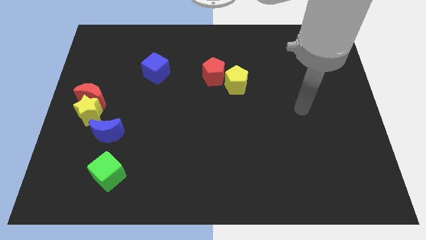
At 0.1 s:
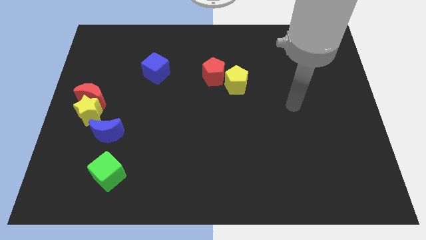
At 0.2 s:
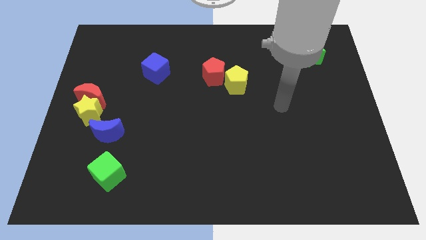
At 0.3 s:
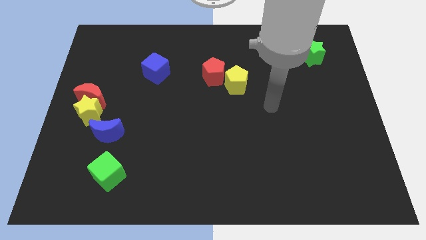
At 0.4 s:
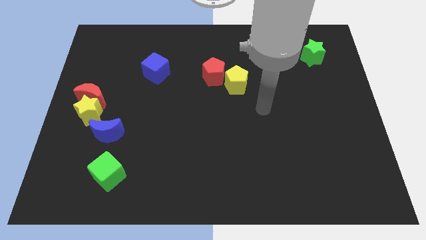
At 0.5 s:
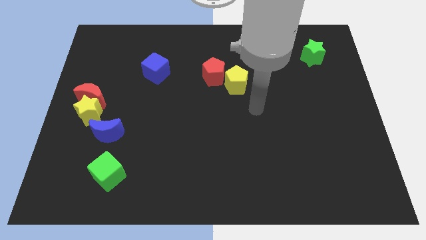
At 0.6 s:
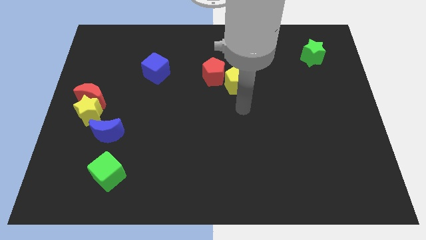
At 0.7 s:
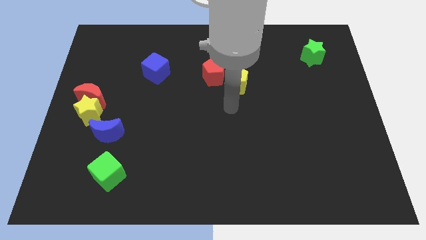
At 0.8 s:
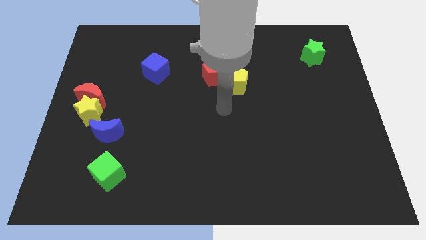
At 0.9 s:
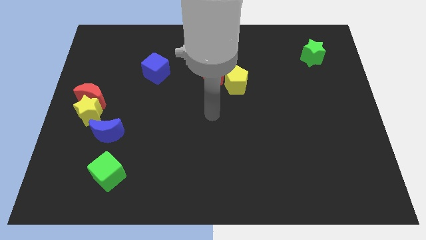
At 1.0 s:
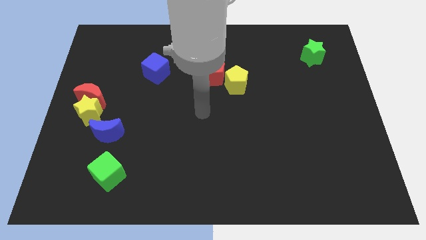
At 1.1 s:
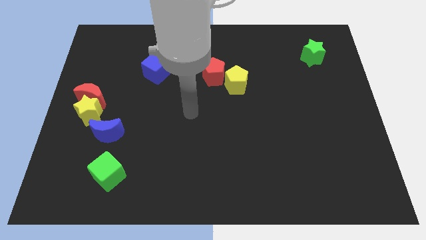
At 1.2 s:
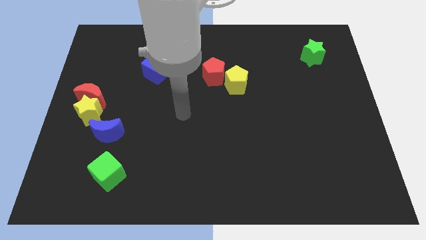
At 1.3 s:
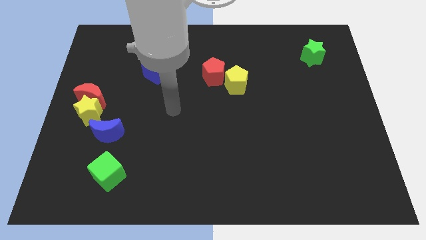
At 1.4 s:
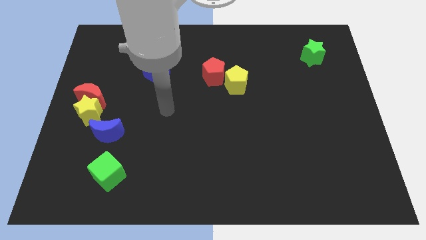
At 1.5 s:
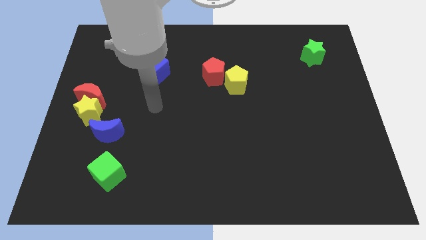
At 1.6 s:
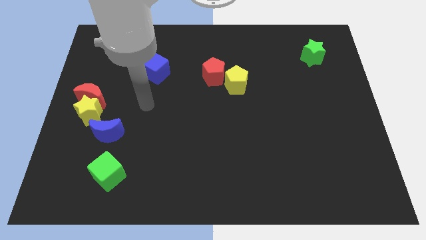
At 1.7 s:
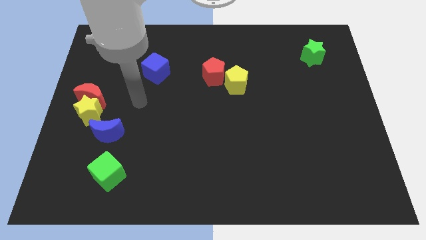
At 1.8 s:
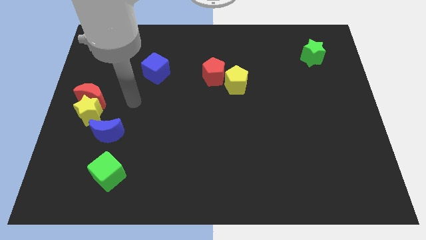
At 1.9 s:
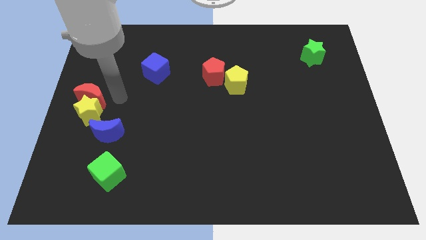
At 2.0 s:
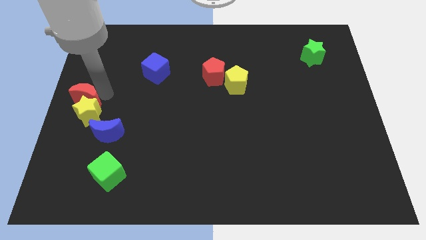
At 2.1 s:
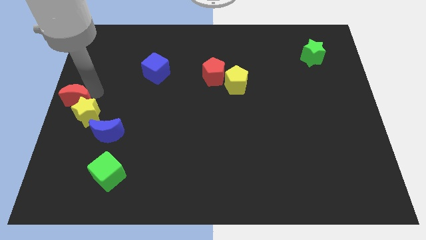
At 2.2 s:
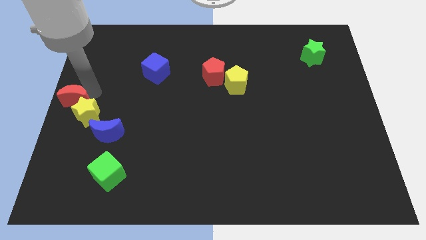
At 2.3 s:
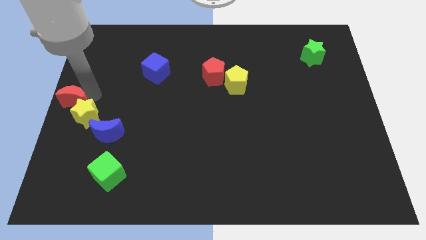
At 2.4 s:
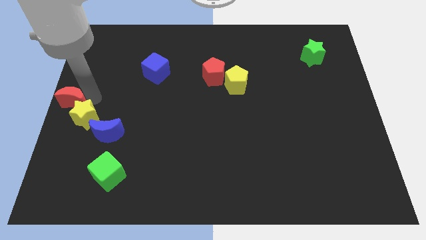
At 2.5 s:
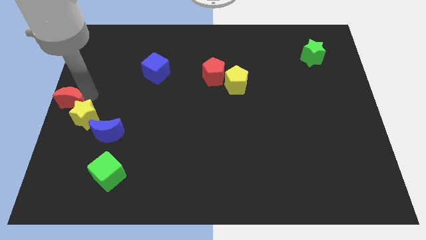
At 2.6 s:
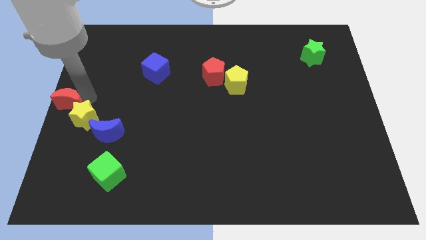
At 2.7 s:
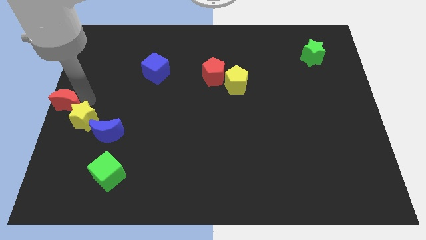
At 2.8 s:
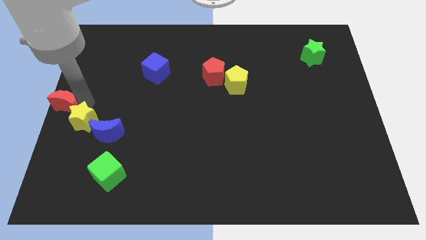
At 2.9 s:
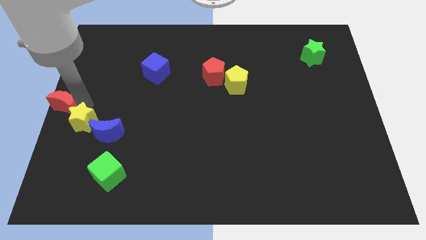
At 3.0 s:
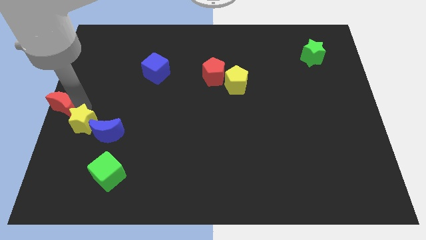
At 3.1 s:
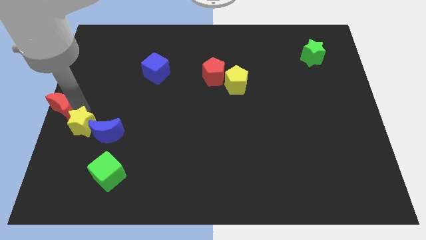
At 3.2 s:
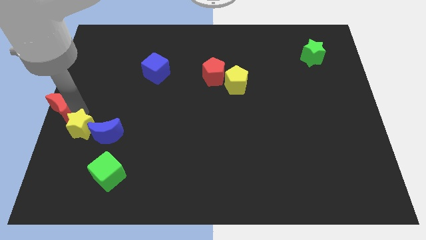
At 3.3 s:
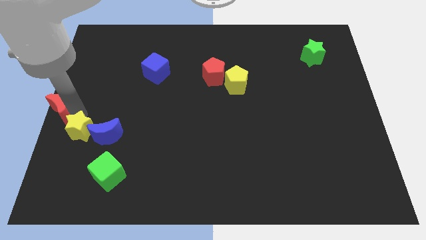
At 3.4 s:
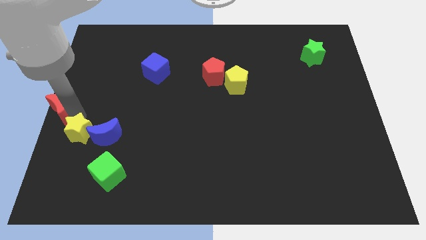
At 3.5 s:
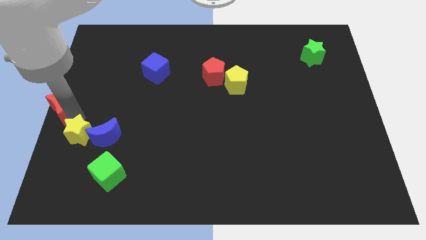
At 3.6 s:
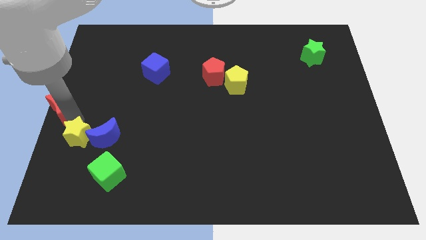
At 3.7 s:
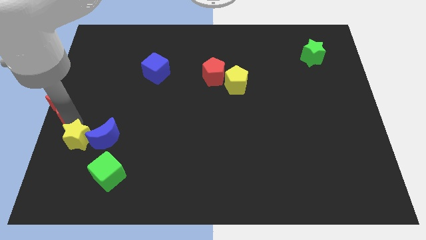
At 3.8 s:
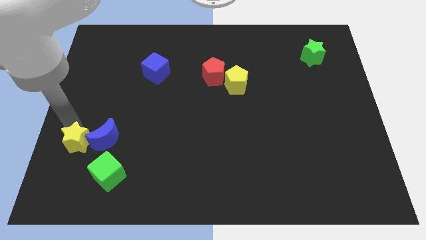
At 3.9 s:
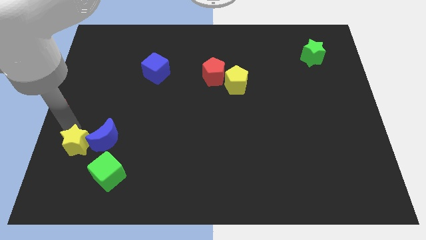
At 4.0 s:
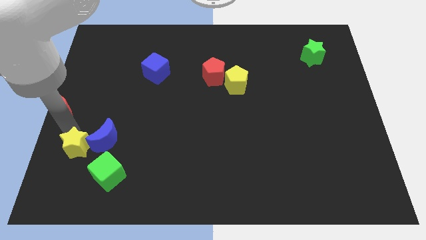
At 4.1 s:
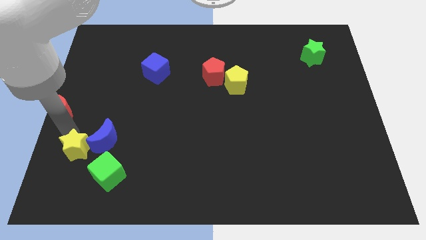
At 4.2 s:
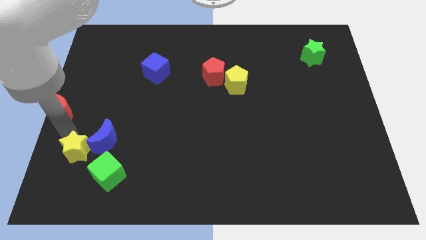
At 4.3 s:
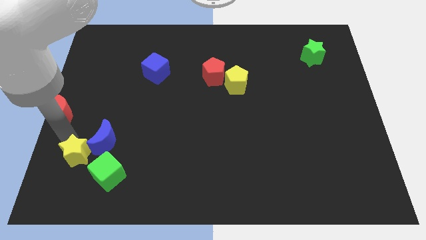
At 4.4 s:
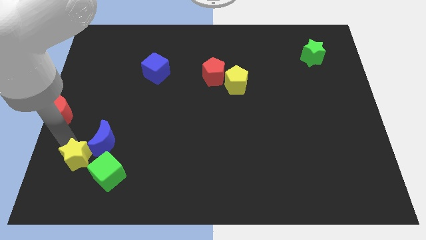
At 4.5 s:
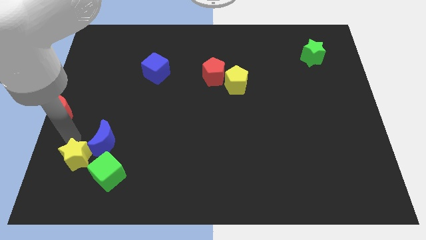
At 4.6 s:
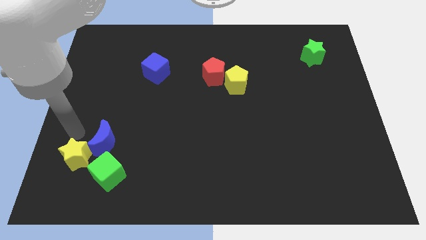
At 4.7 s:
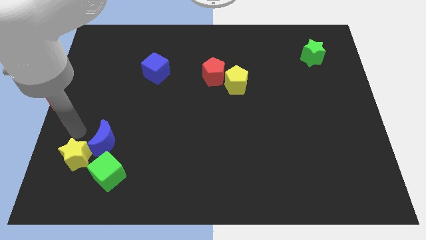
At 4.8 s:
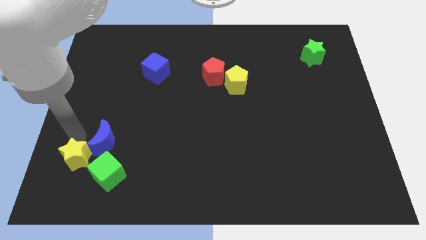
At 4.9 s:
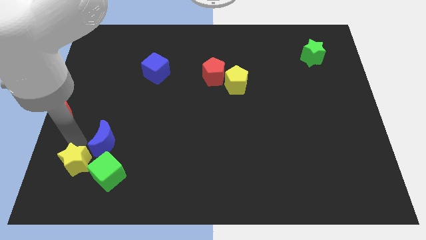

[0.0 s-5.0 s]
push the yellow star to the bottom side of the blue moon

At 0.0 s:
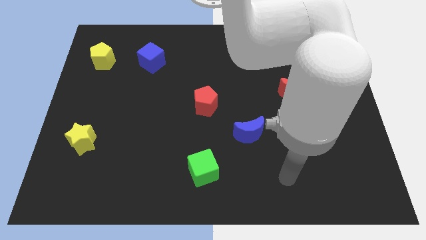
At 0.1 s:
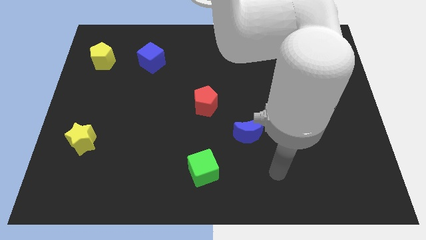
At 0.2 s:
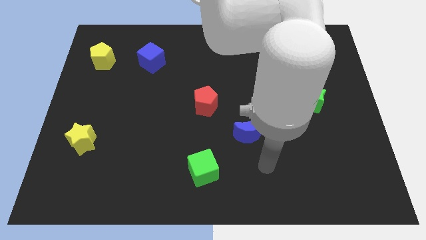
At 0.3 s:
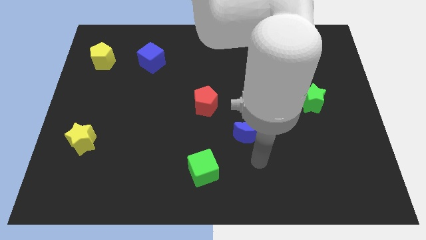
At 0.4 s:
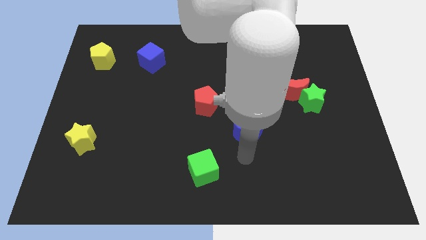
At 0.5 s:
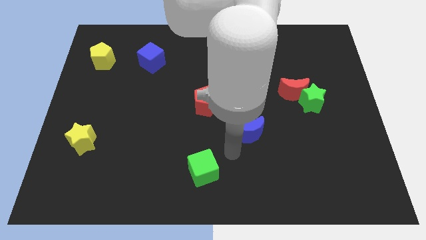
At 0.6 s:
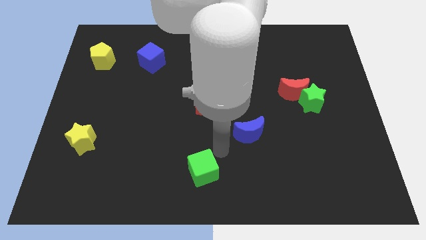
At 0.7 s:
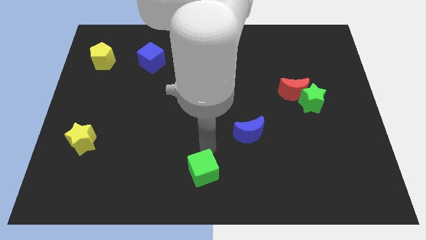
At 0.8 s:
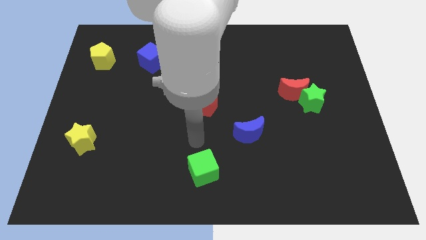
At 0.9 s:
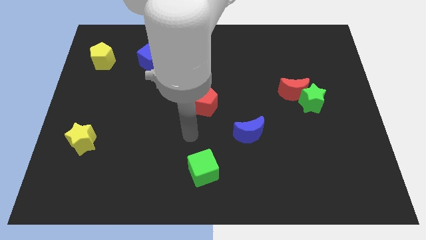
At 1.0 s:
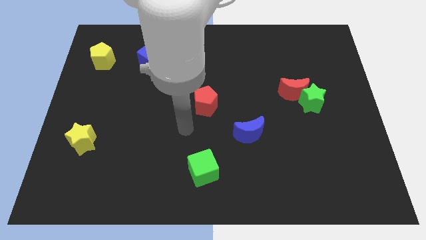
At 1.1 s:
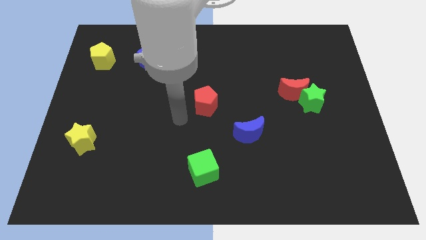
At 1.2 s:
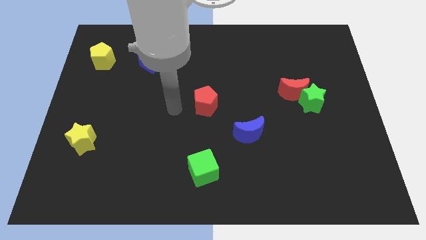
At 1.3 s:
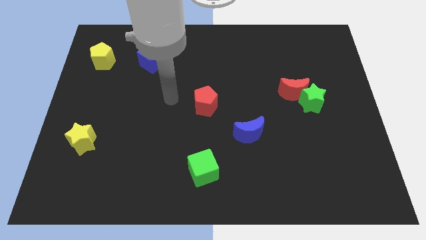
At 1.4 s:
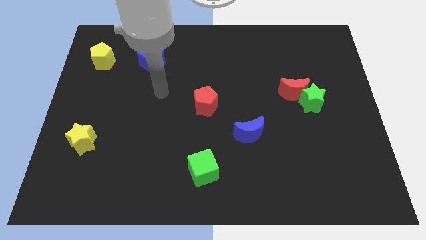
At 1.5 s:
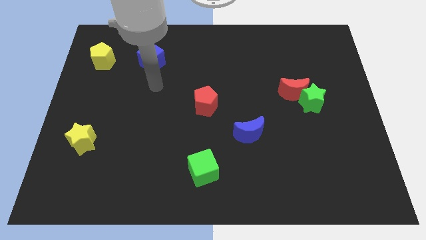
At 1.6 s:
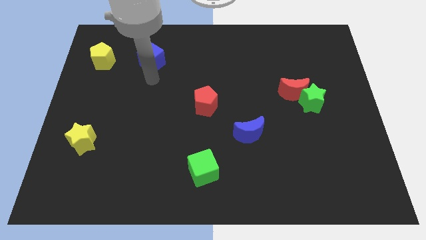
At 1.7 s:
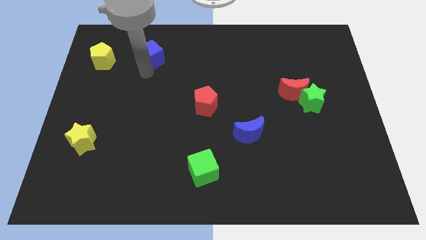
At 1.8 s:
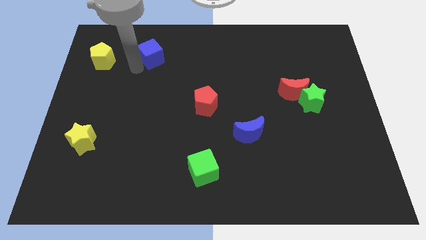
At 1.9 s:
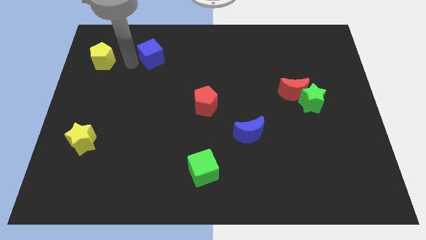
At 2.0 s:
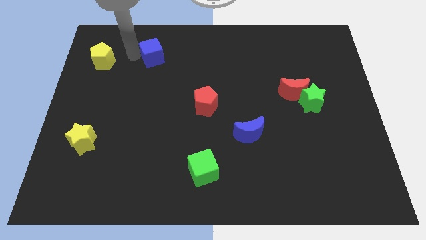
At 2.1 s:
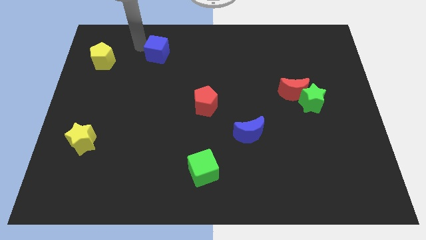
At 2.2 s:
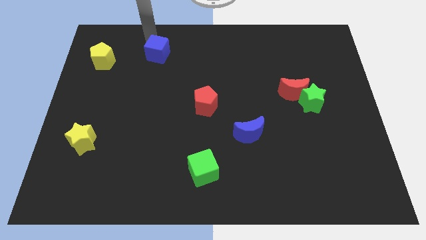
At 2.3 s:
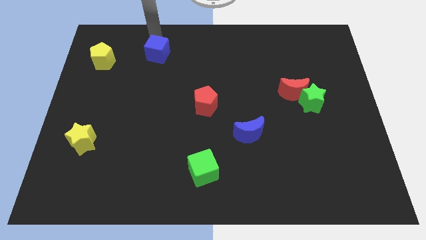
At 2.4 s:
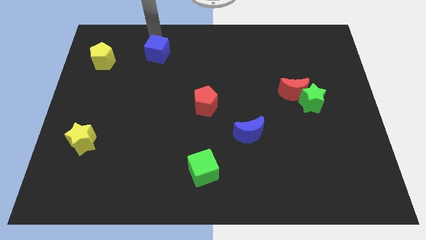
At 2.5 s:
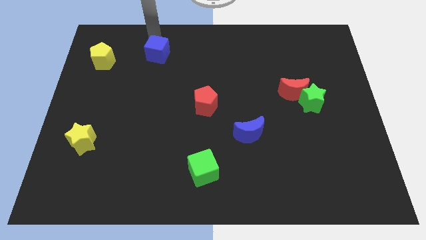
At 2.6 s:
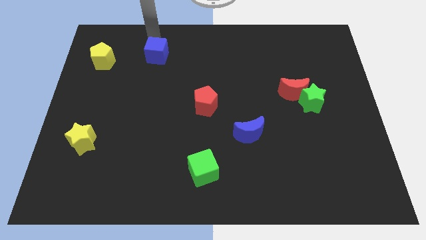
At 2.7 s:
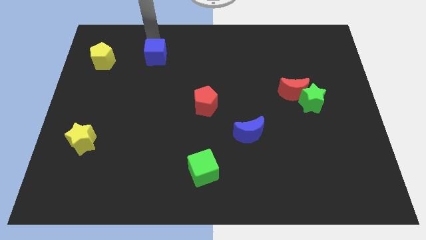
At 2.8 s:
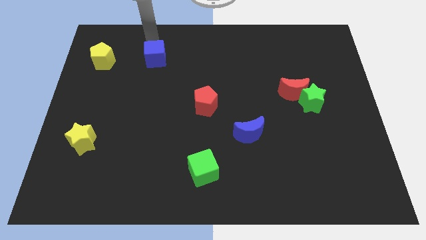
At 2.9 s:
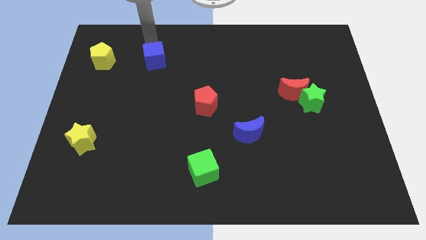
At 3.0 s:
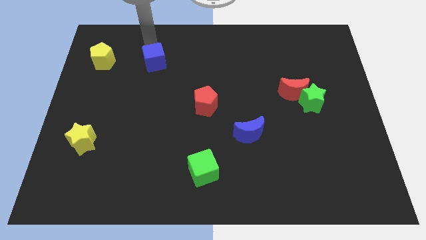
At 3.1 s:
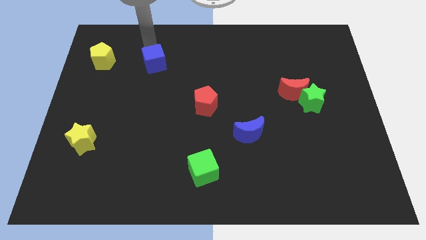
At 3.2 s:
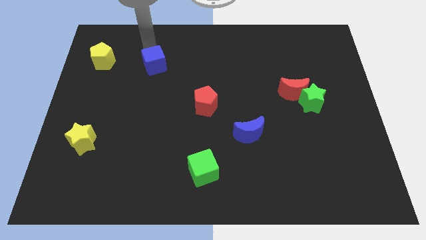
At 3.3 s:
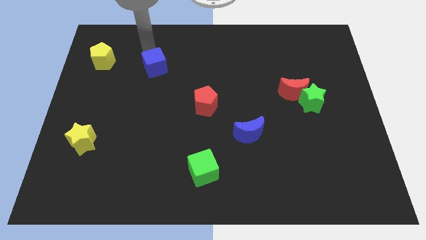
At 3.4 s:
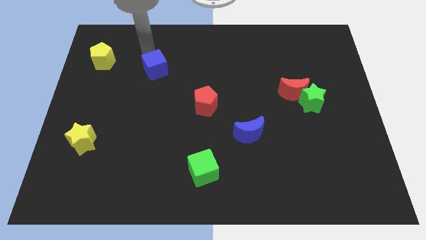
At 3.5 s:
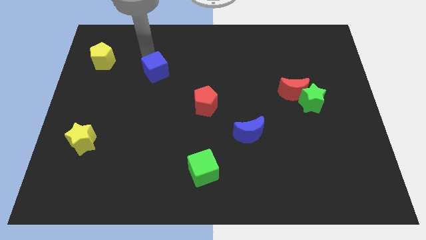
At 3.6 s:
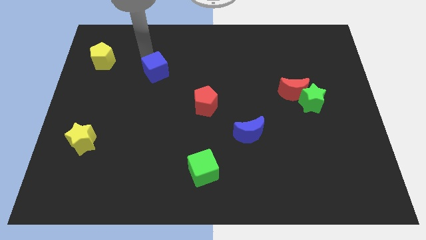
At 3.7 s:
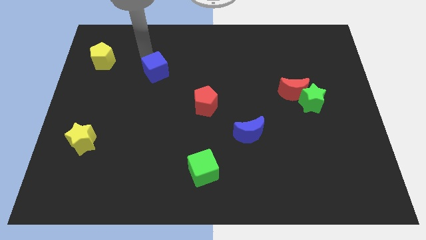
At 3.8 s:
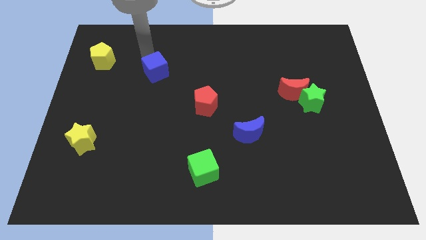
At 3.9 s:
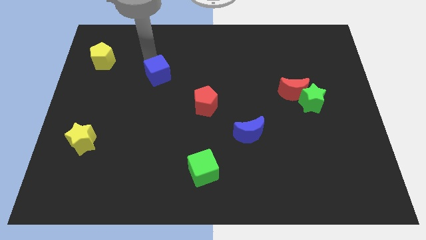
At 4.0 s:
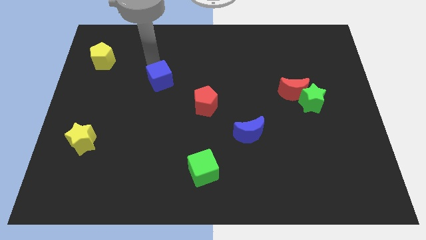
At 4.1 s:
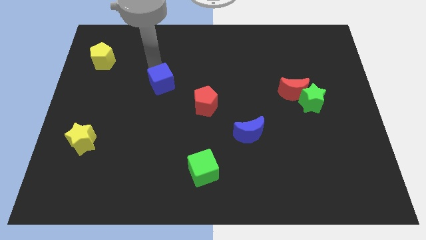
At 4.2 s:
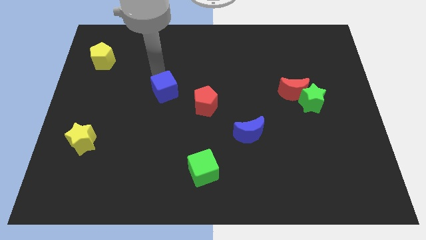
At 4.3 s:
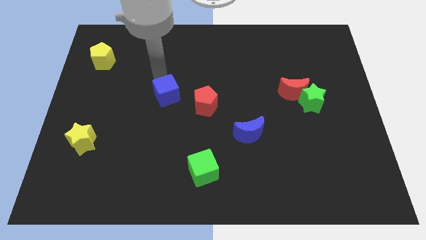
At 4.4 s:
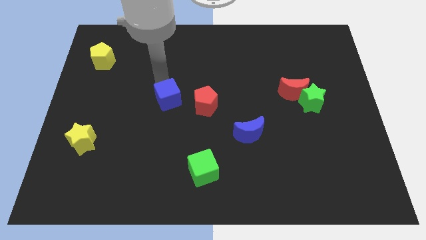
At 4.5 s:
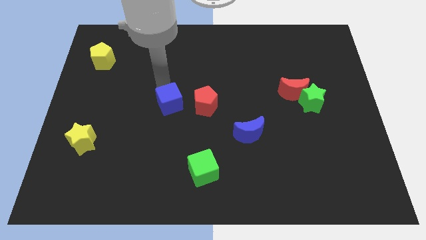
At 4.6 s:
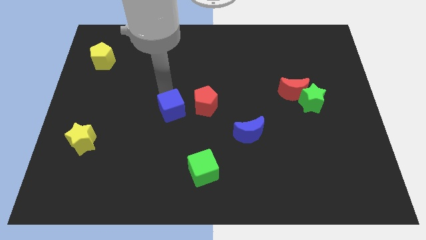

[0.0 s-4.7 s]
slide the blue cube diagonally down and to the left of the red pentagon
